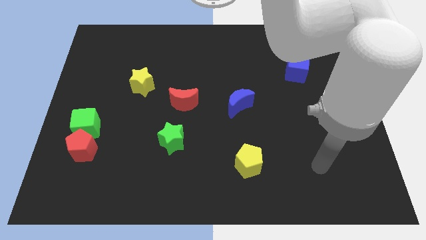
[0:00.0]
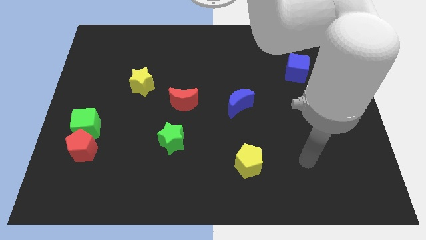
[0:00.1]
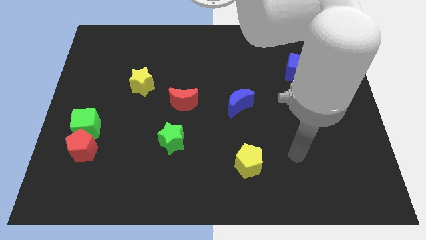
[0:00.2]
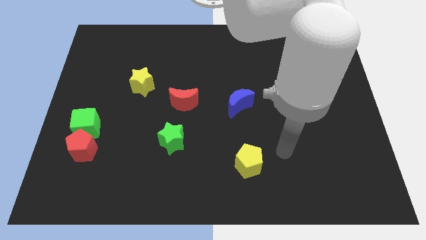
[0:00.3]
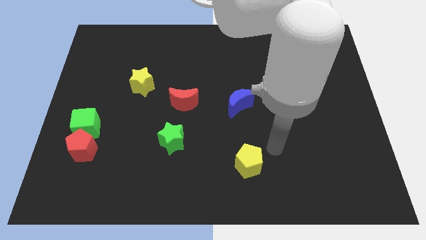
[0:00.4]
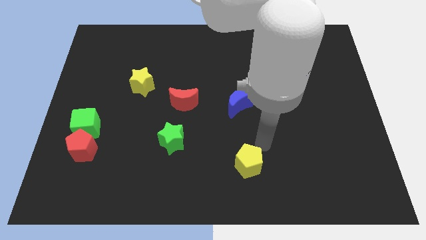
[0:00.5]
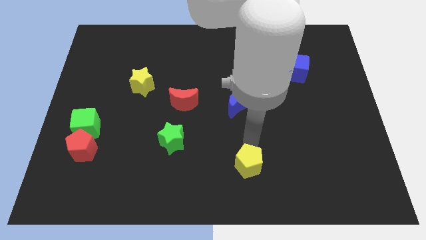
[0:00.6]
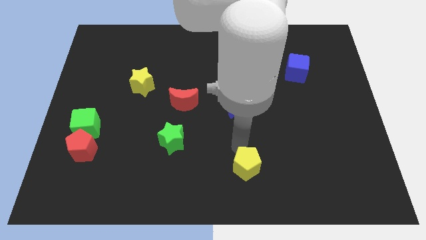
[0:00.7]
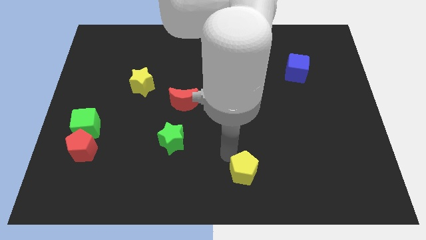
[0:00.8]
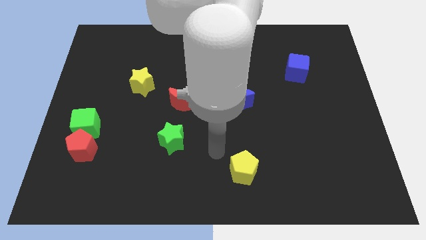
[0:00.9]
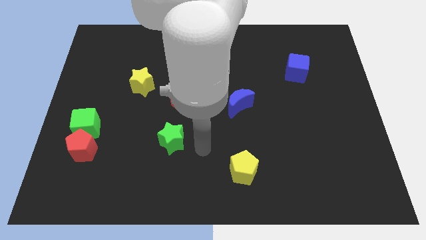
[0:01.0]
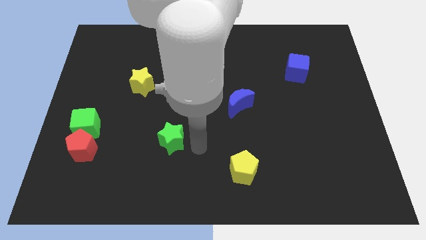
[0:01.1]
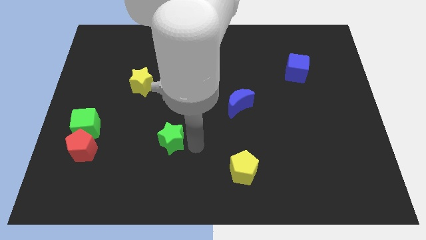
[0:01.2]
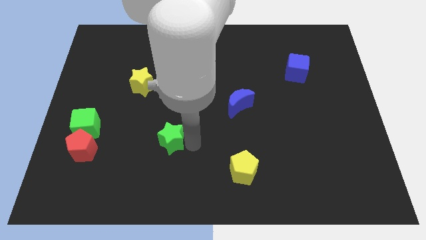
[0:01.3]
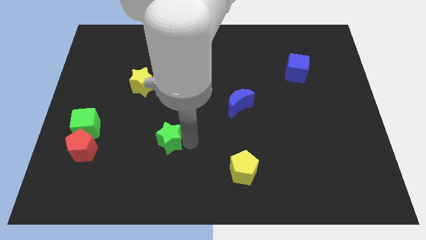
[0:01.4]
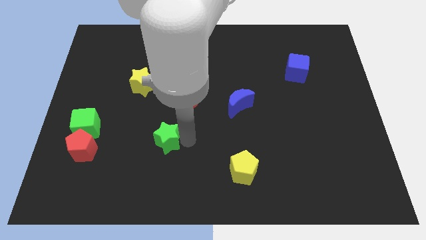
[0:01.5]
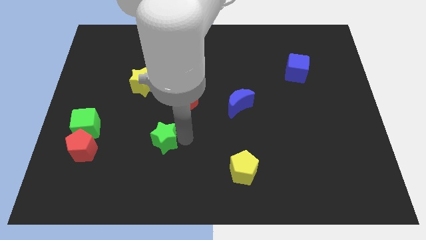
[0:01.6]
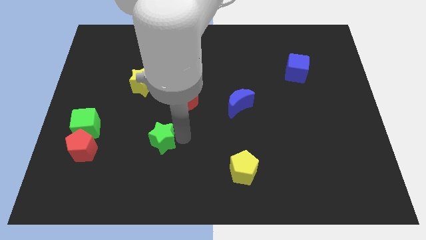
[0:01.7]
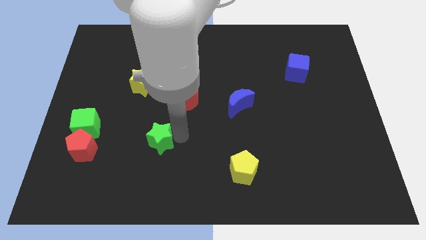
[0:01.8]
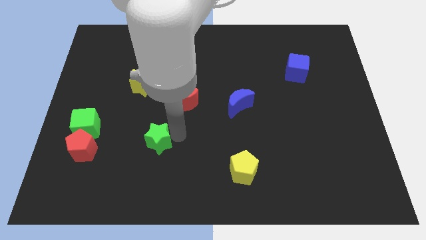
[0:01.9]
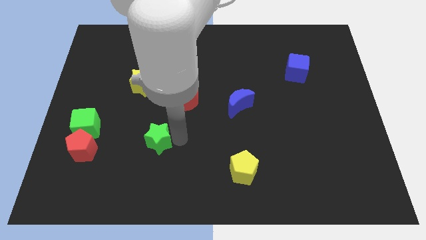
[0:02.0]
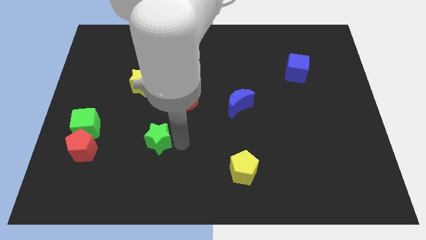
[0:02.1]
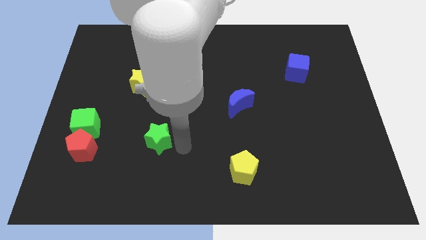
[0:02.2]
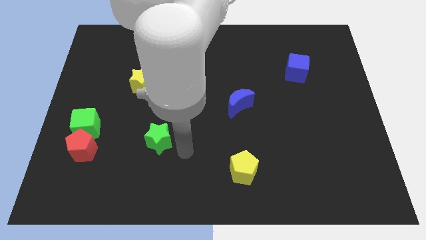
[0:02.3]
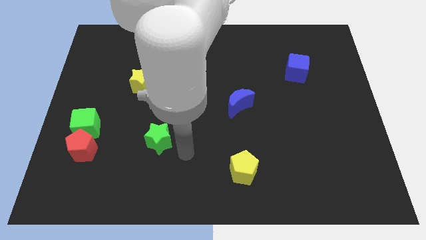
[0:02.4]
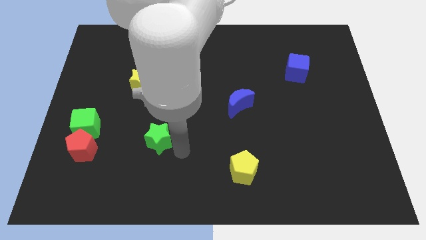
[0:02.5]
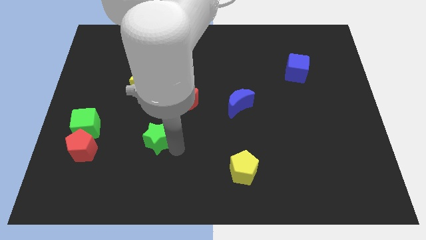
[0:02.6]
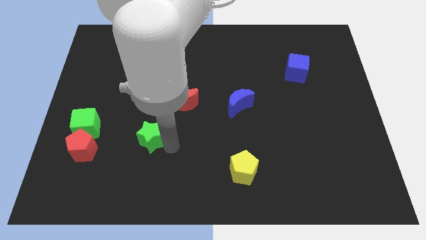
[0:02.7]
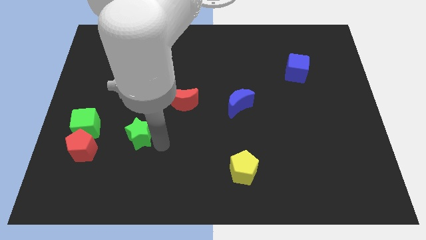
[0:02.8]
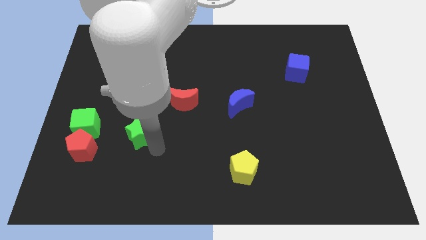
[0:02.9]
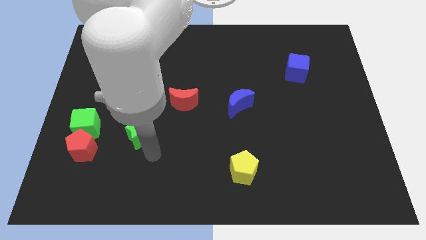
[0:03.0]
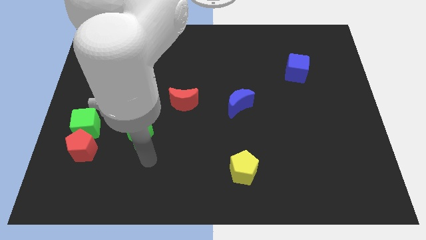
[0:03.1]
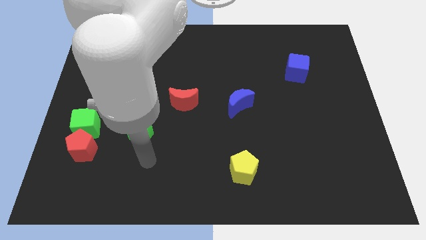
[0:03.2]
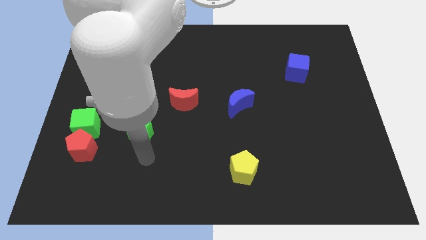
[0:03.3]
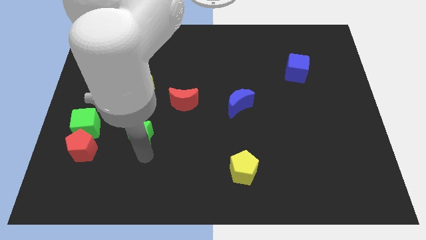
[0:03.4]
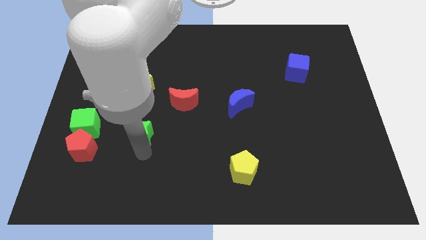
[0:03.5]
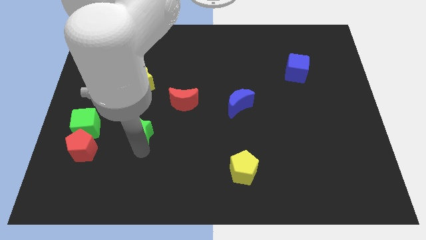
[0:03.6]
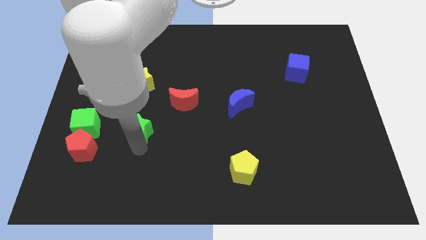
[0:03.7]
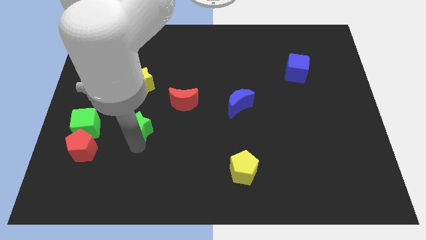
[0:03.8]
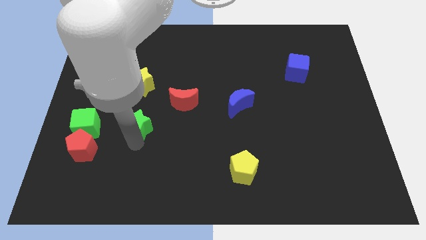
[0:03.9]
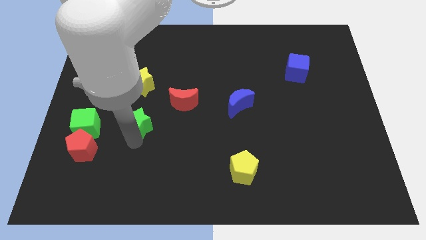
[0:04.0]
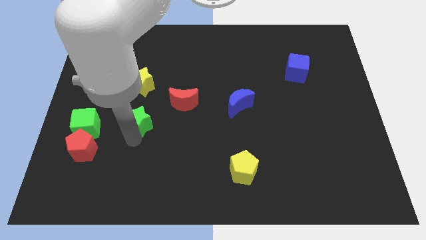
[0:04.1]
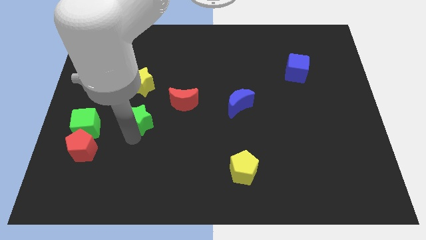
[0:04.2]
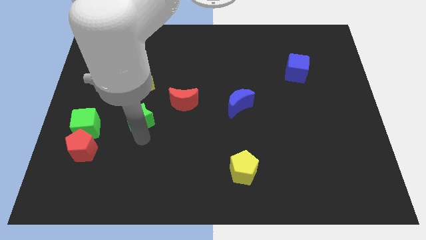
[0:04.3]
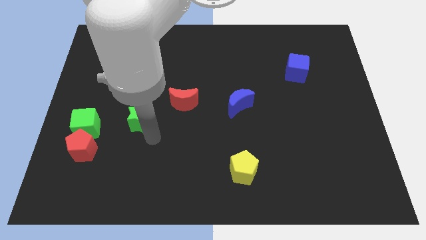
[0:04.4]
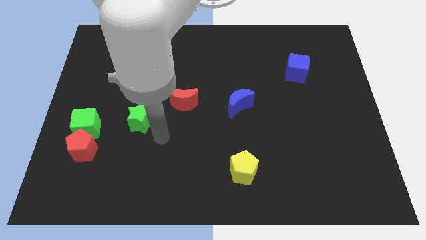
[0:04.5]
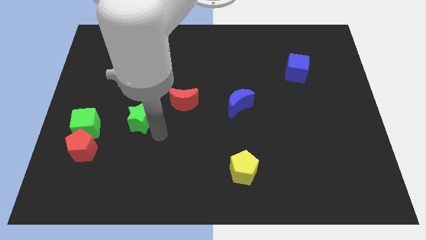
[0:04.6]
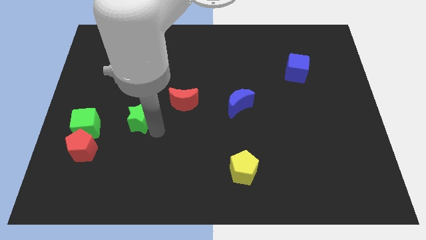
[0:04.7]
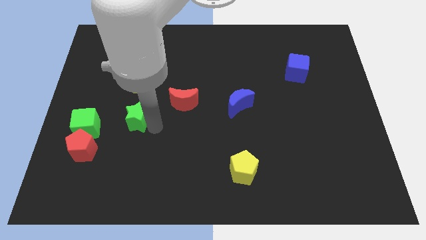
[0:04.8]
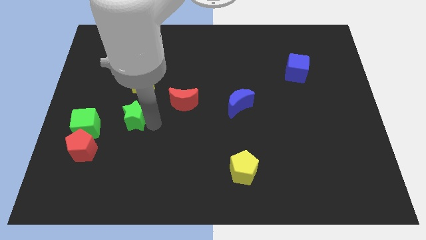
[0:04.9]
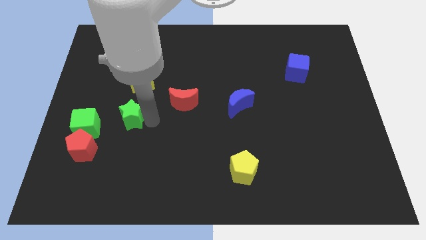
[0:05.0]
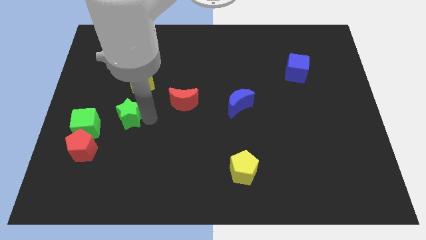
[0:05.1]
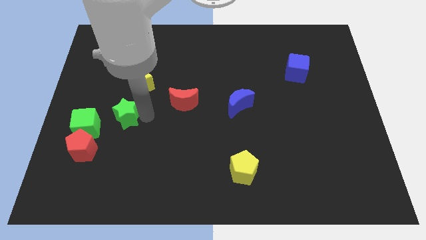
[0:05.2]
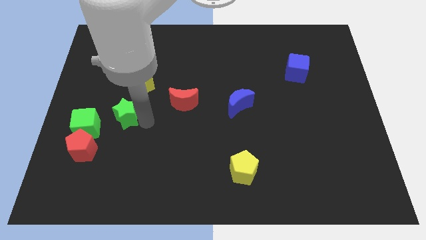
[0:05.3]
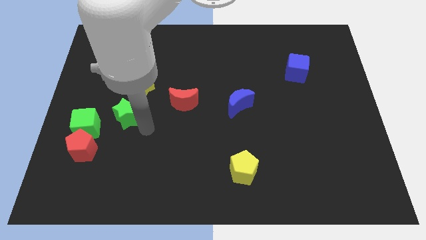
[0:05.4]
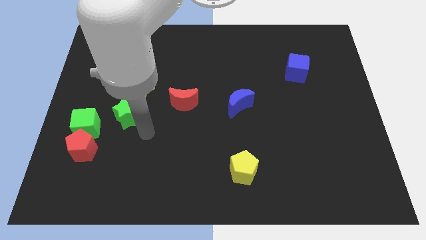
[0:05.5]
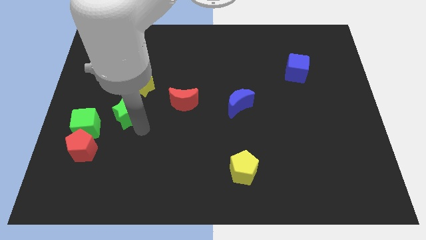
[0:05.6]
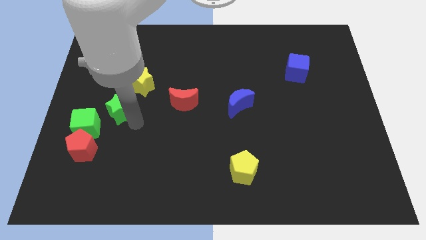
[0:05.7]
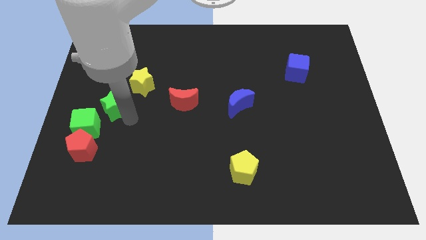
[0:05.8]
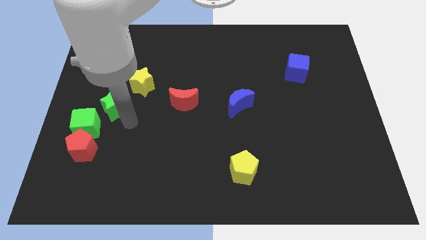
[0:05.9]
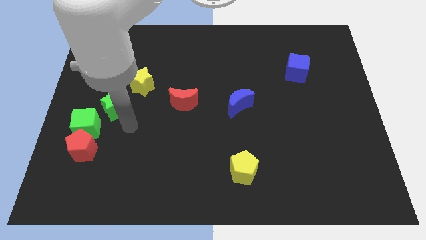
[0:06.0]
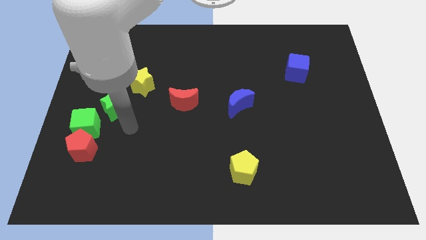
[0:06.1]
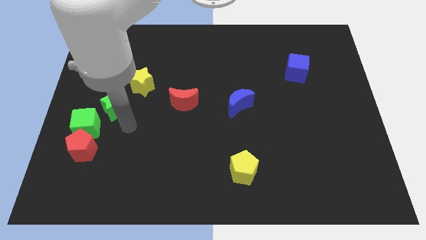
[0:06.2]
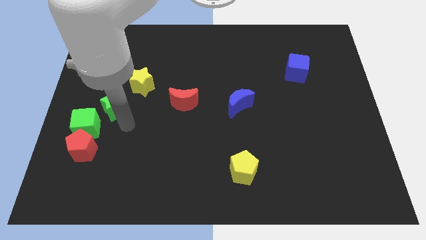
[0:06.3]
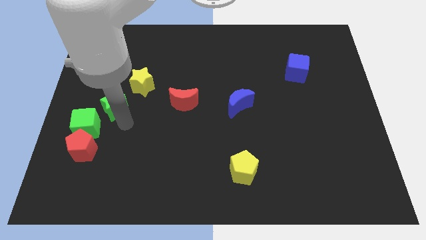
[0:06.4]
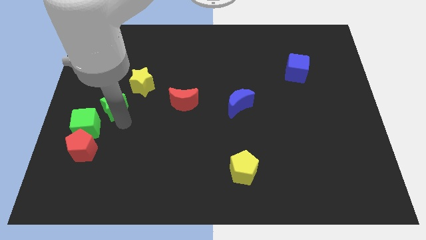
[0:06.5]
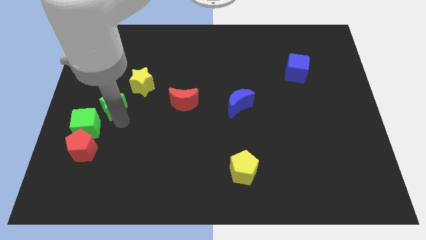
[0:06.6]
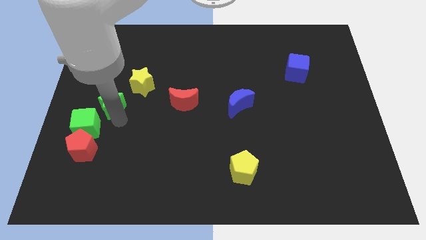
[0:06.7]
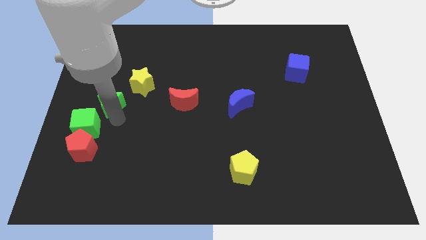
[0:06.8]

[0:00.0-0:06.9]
put the green star to the top side of the green cube
